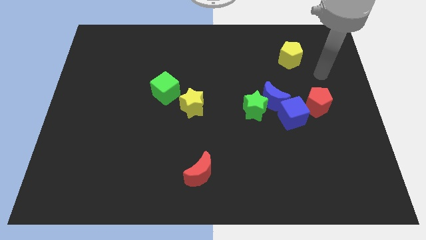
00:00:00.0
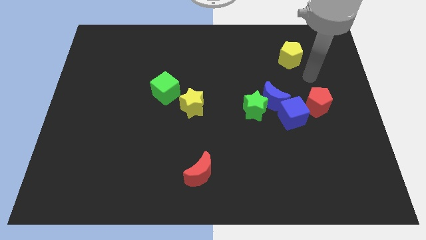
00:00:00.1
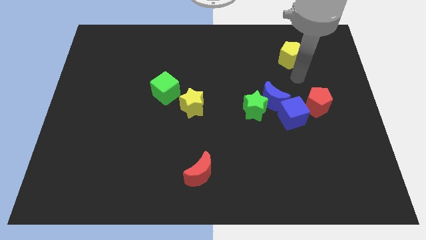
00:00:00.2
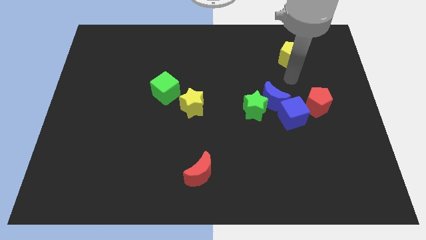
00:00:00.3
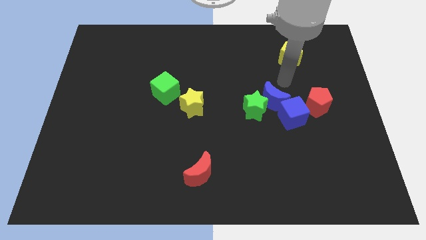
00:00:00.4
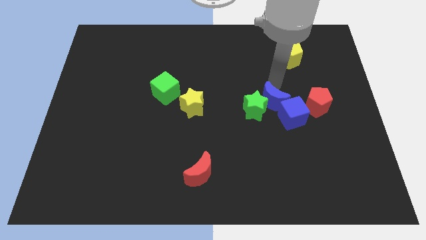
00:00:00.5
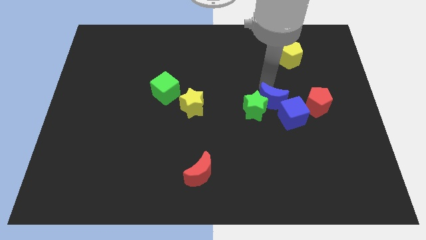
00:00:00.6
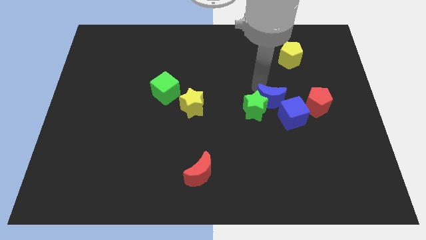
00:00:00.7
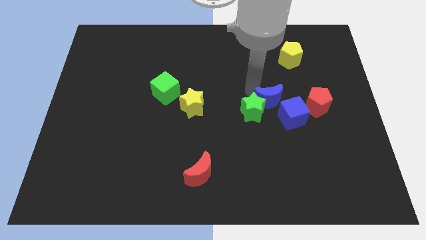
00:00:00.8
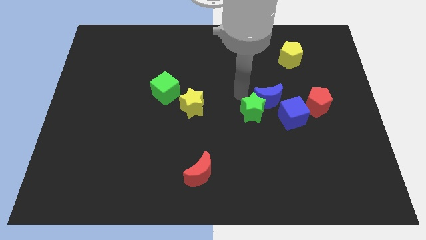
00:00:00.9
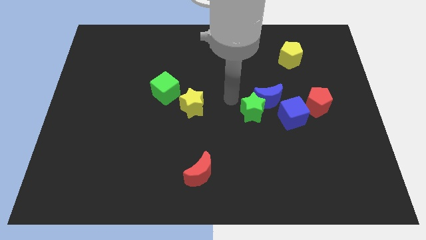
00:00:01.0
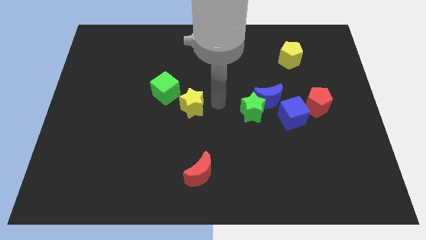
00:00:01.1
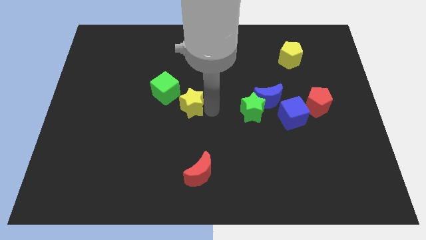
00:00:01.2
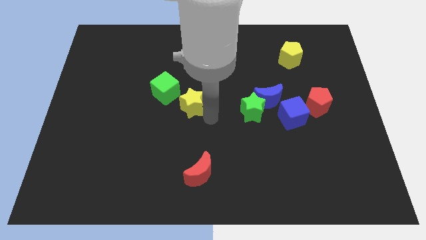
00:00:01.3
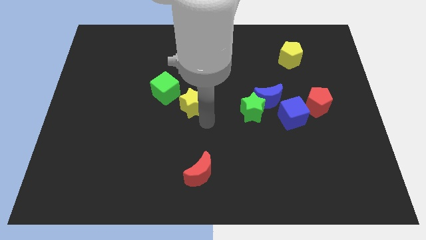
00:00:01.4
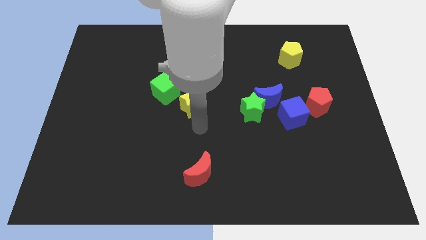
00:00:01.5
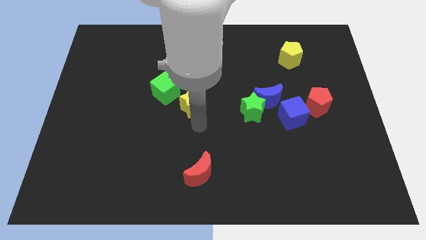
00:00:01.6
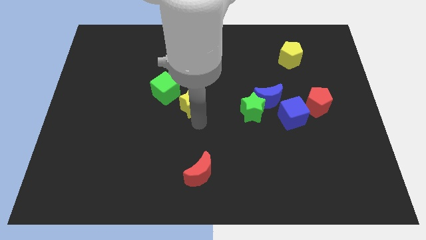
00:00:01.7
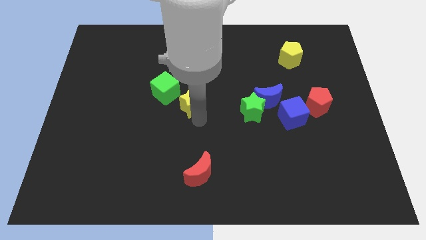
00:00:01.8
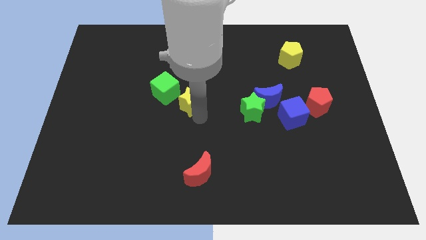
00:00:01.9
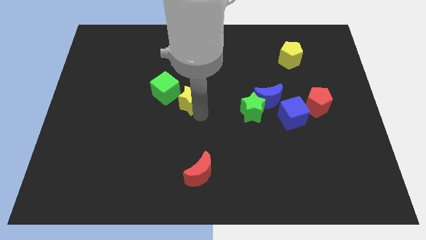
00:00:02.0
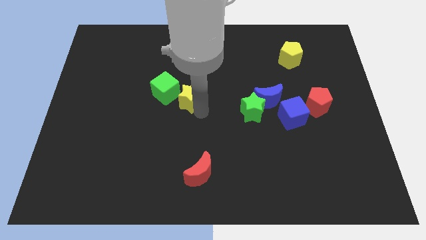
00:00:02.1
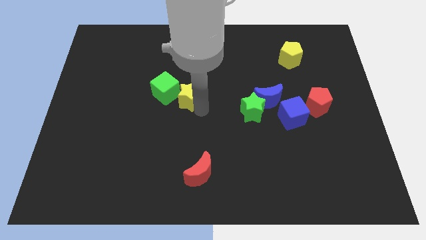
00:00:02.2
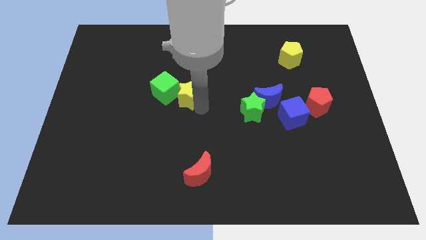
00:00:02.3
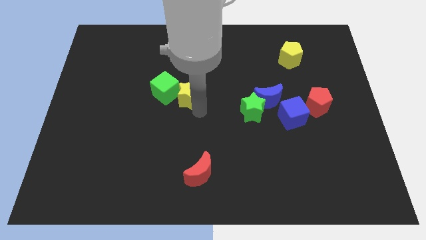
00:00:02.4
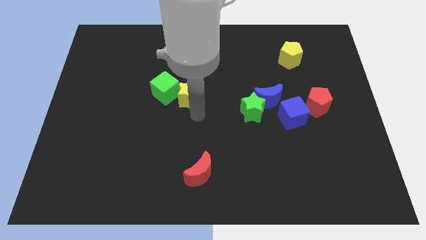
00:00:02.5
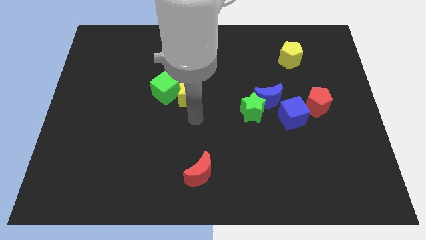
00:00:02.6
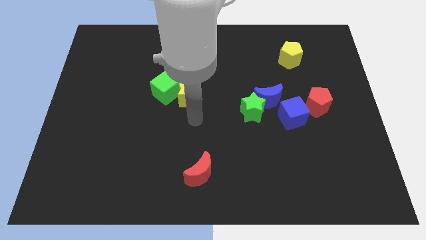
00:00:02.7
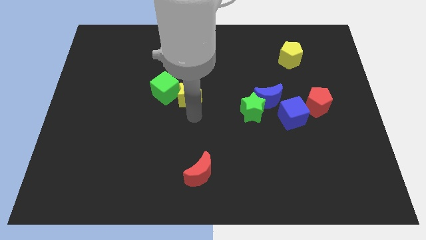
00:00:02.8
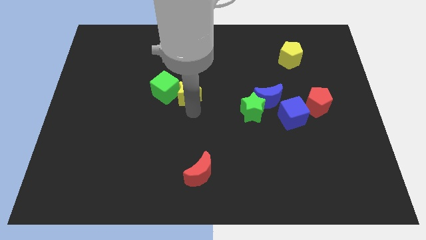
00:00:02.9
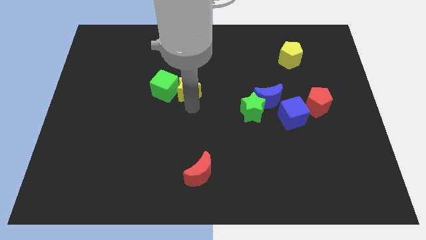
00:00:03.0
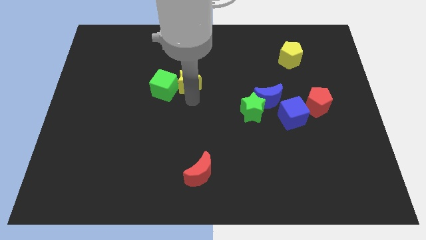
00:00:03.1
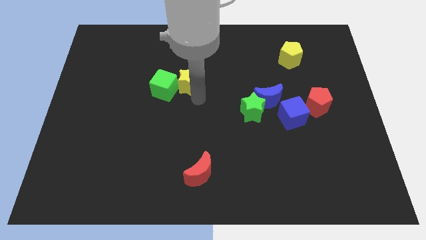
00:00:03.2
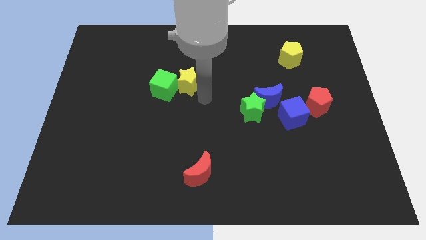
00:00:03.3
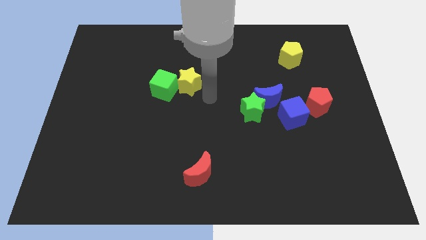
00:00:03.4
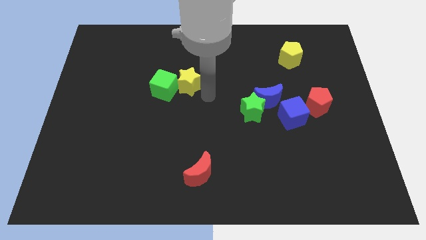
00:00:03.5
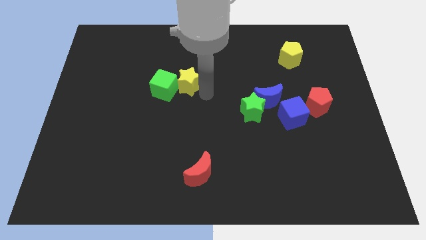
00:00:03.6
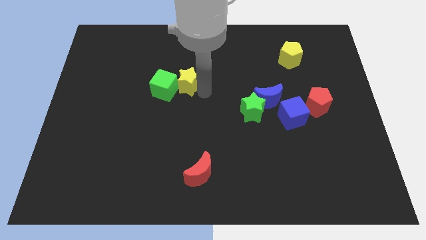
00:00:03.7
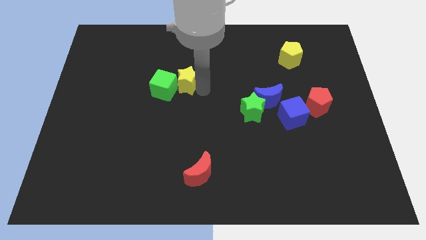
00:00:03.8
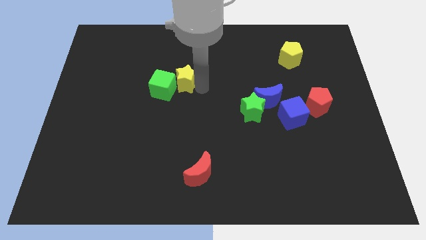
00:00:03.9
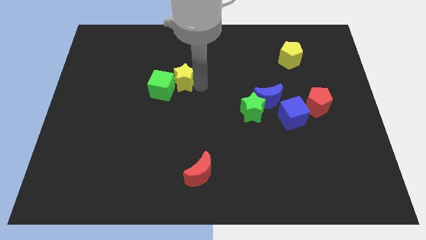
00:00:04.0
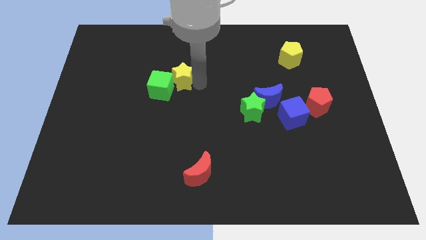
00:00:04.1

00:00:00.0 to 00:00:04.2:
slightly push the yellow star up and left diagonally

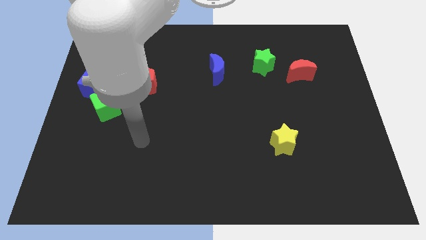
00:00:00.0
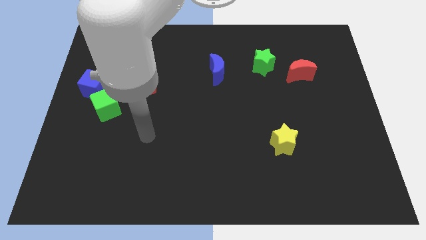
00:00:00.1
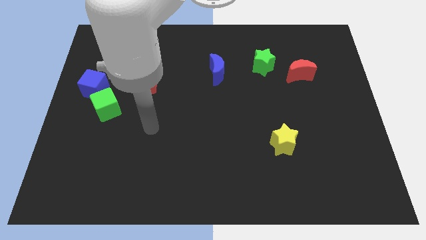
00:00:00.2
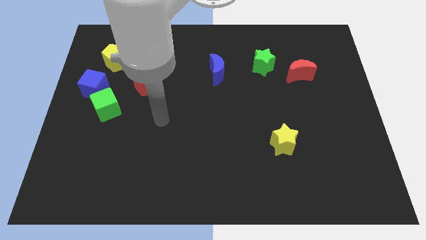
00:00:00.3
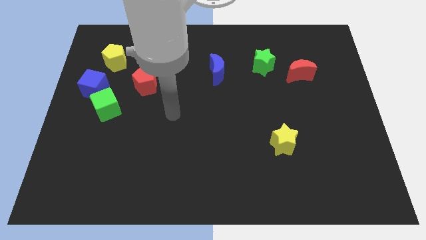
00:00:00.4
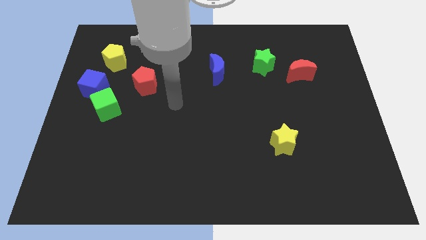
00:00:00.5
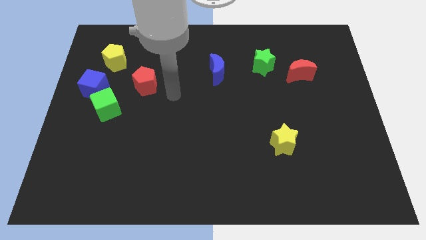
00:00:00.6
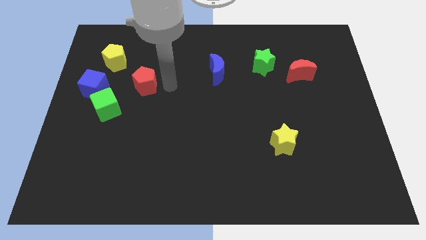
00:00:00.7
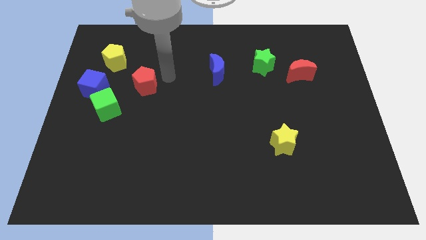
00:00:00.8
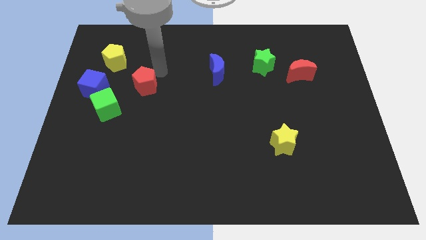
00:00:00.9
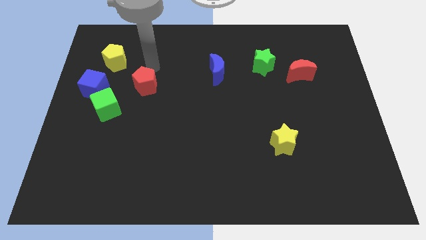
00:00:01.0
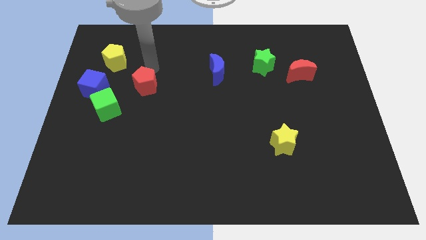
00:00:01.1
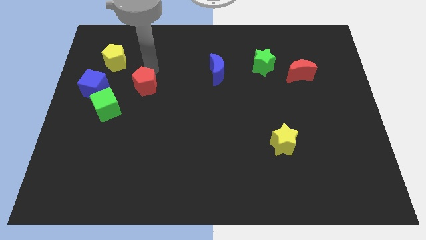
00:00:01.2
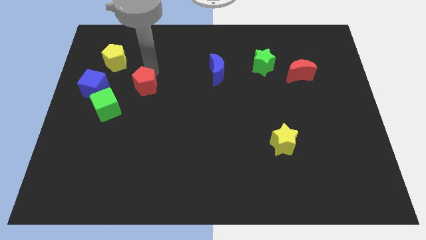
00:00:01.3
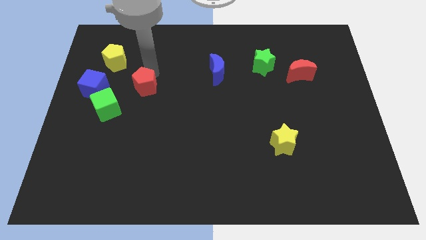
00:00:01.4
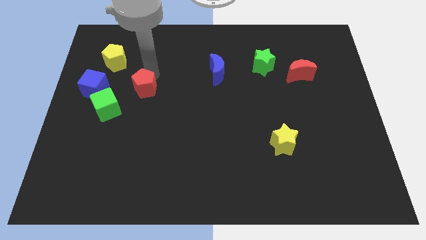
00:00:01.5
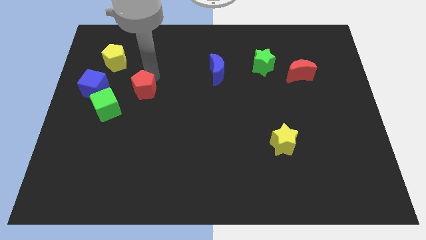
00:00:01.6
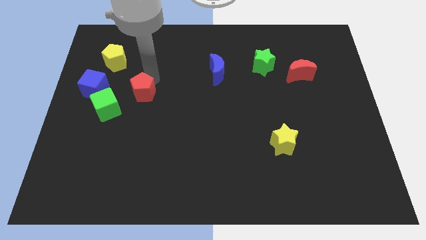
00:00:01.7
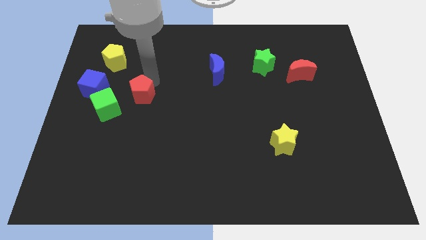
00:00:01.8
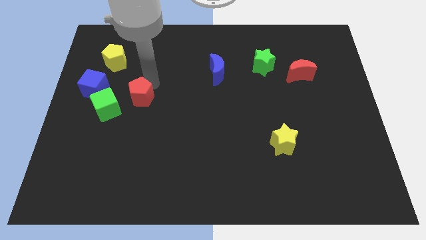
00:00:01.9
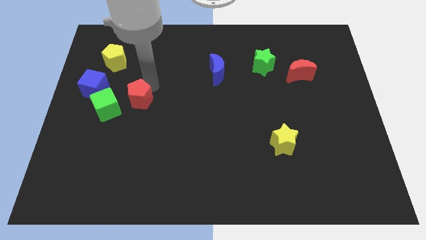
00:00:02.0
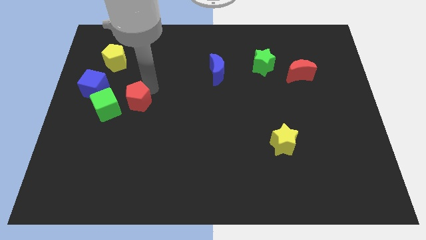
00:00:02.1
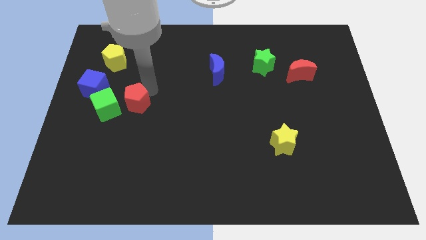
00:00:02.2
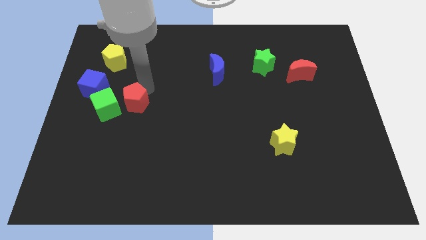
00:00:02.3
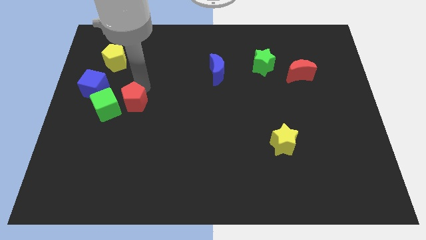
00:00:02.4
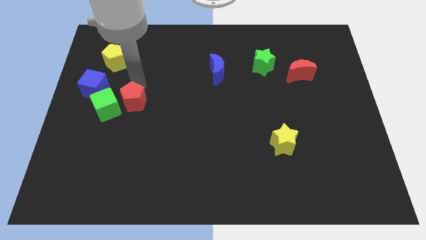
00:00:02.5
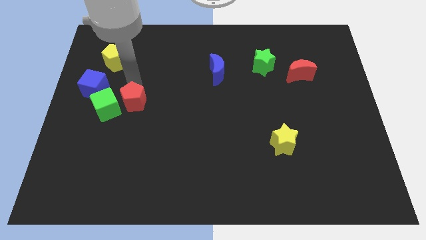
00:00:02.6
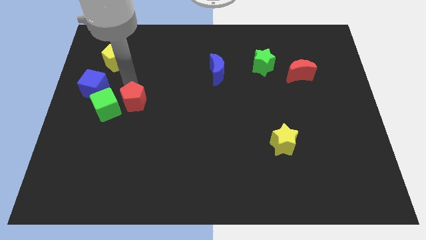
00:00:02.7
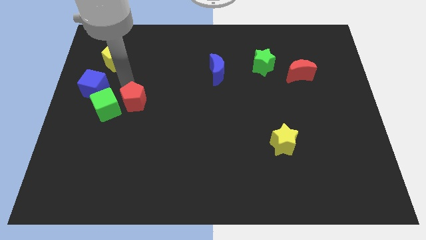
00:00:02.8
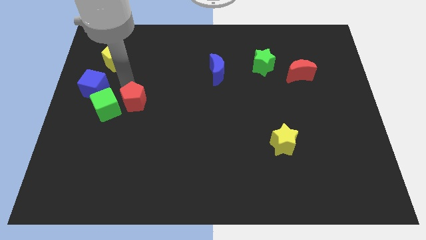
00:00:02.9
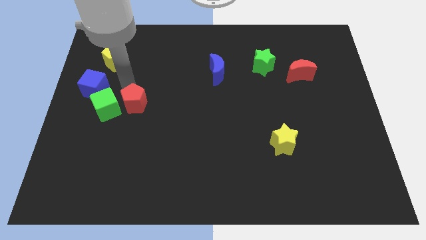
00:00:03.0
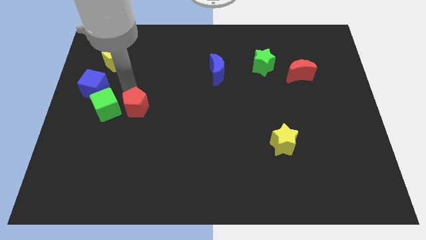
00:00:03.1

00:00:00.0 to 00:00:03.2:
slightly push the red pentagon downwards

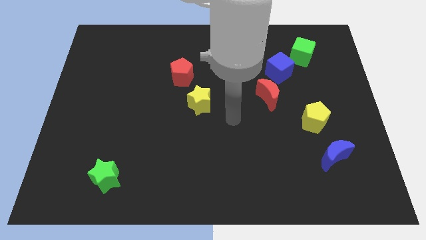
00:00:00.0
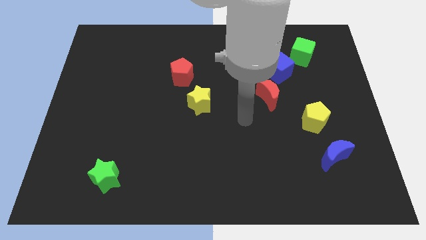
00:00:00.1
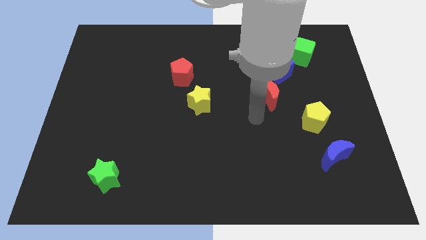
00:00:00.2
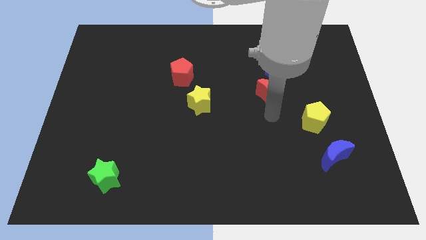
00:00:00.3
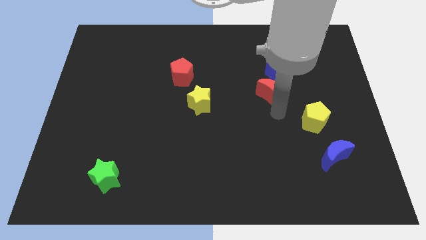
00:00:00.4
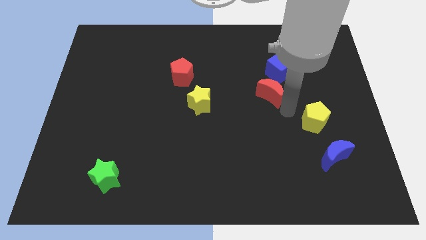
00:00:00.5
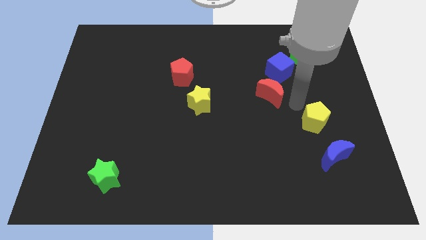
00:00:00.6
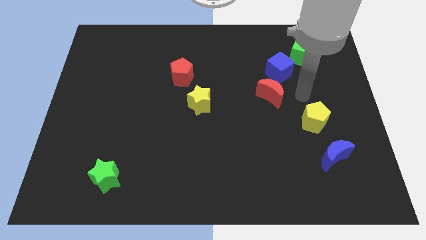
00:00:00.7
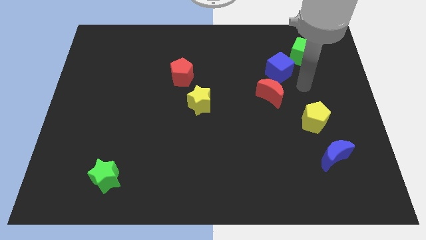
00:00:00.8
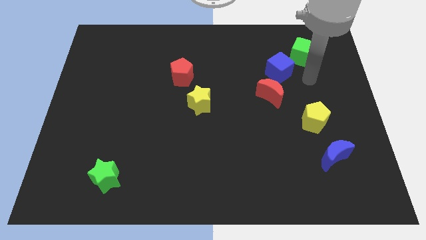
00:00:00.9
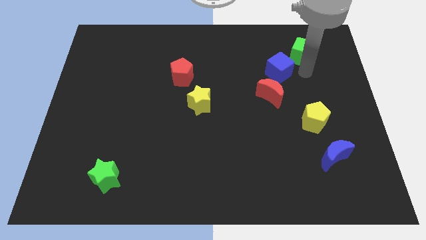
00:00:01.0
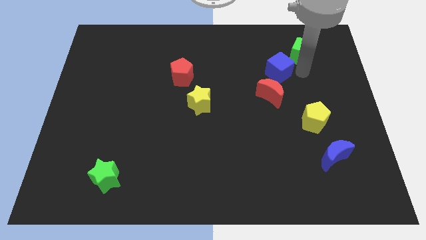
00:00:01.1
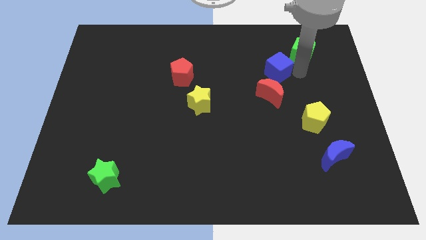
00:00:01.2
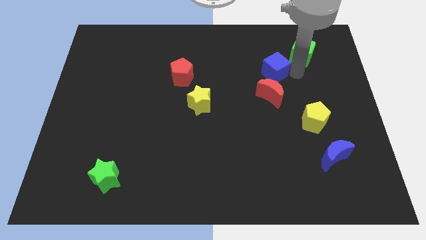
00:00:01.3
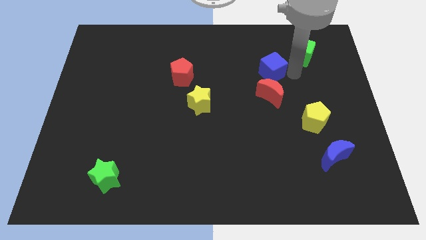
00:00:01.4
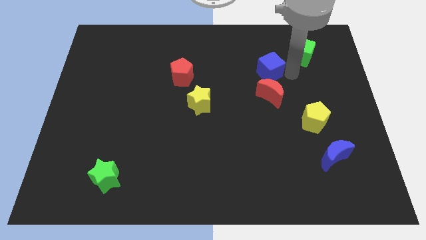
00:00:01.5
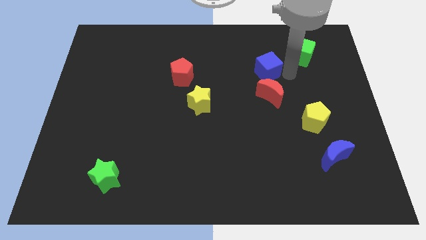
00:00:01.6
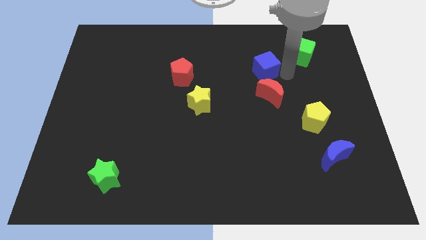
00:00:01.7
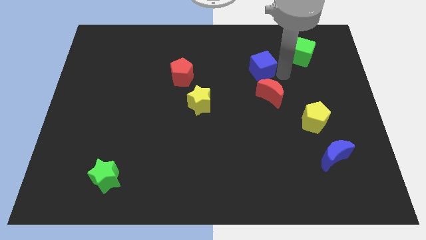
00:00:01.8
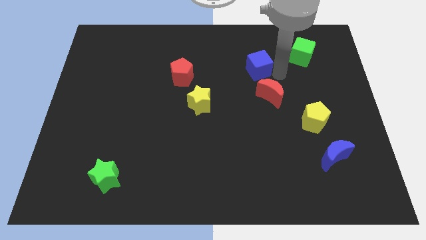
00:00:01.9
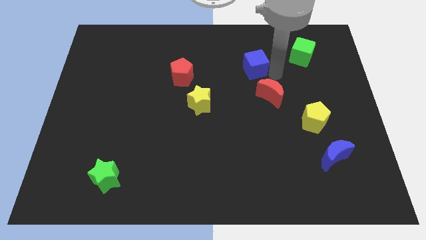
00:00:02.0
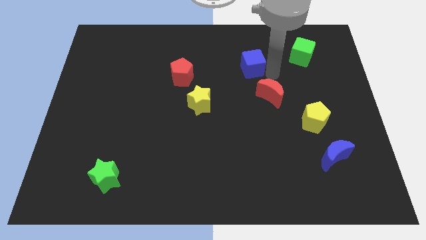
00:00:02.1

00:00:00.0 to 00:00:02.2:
push the blue cube slightly to the left
